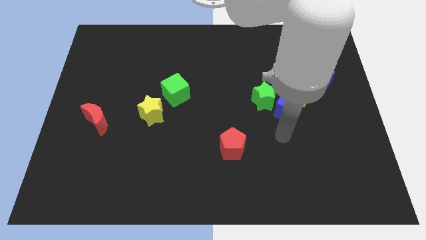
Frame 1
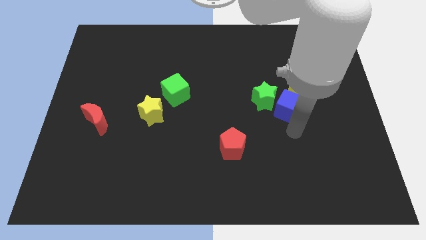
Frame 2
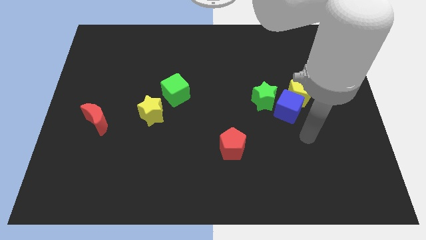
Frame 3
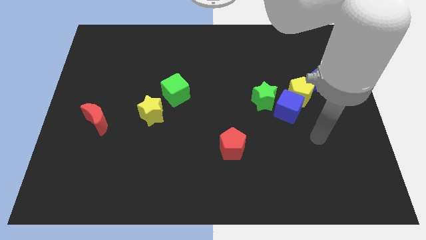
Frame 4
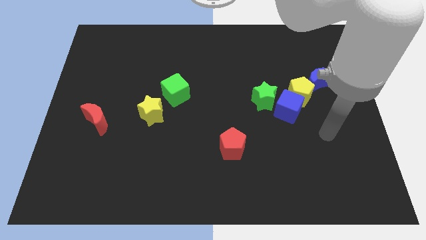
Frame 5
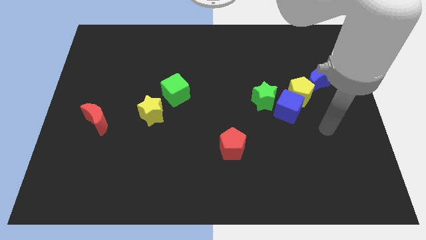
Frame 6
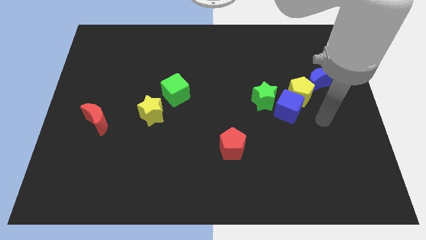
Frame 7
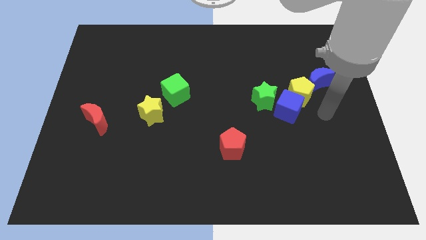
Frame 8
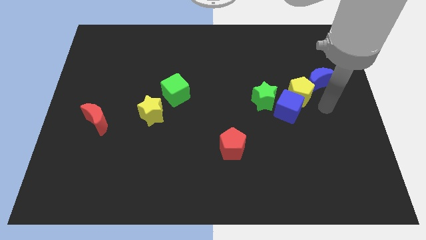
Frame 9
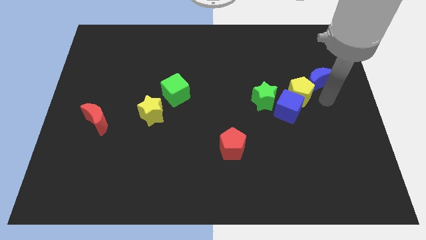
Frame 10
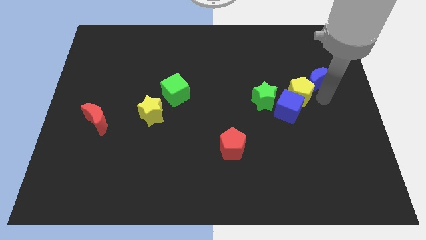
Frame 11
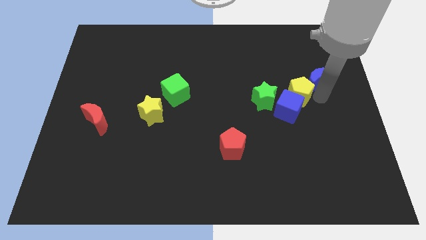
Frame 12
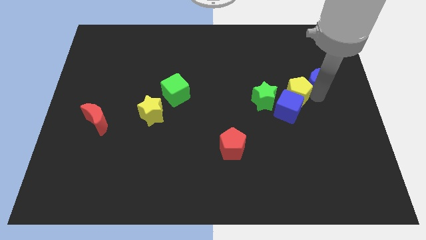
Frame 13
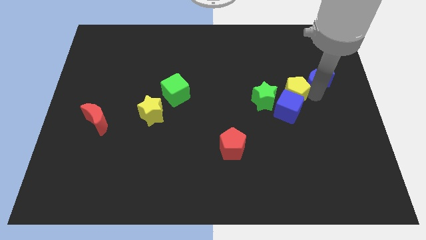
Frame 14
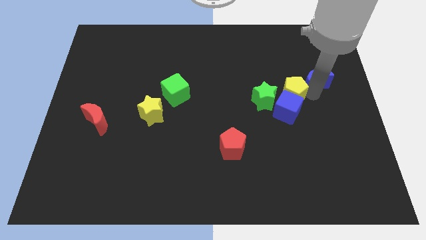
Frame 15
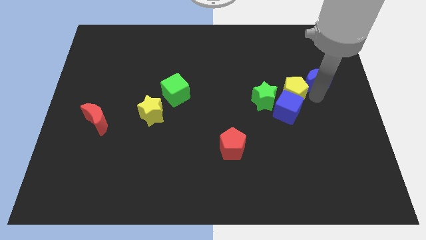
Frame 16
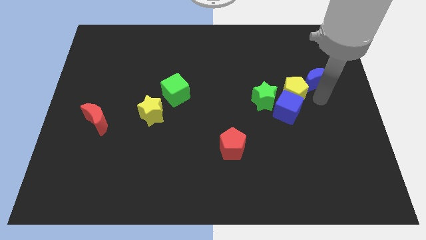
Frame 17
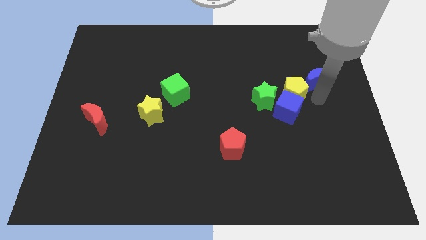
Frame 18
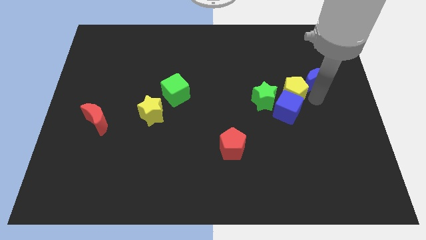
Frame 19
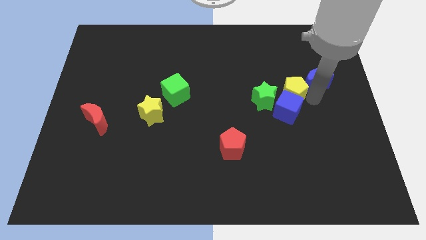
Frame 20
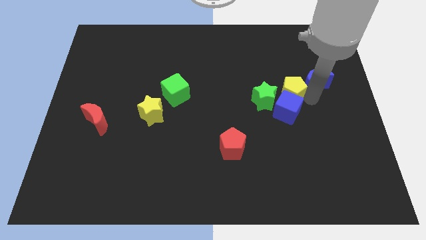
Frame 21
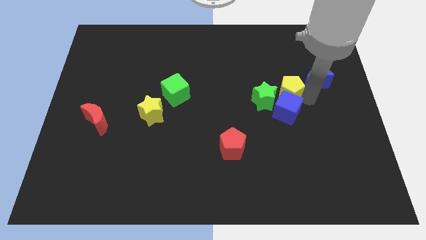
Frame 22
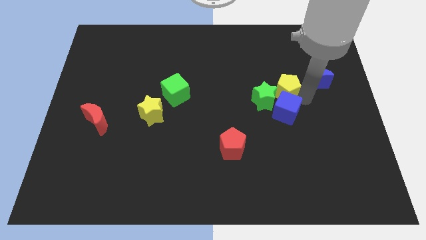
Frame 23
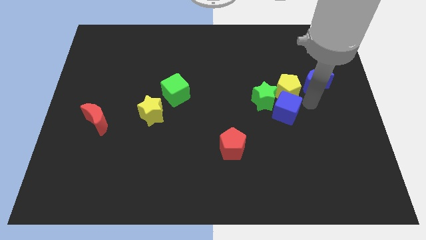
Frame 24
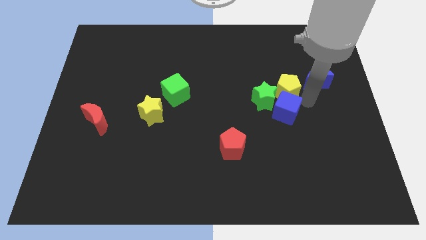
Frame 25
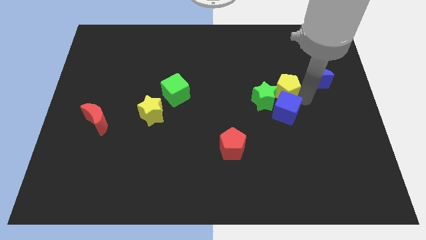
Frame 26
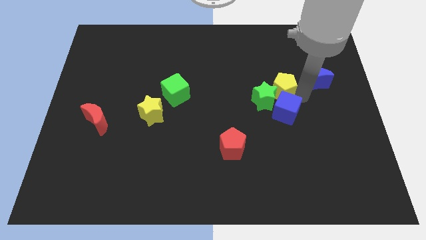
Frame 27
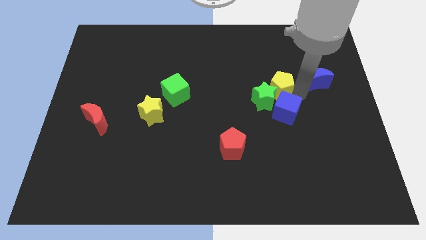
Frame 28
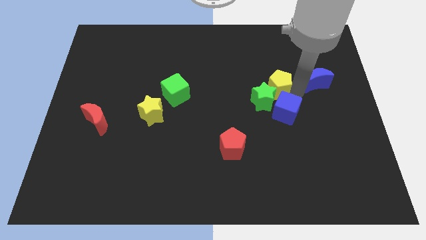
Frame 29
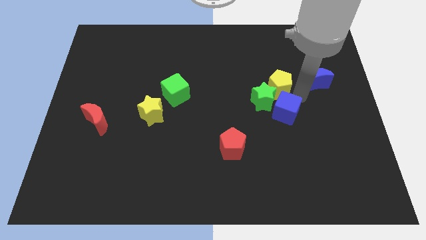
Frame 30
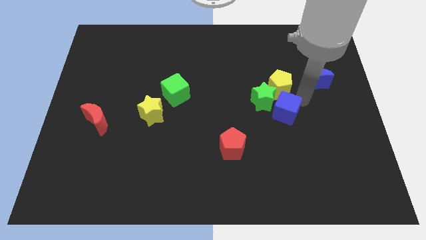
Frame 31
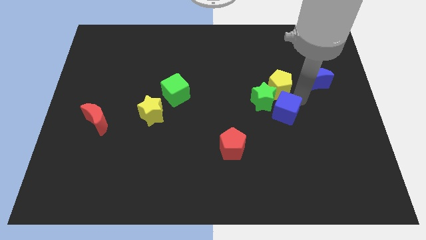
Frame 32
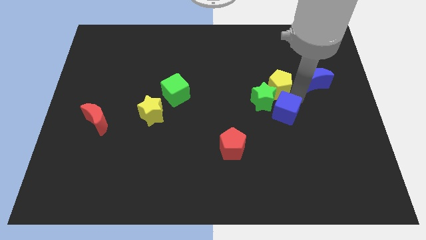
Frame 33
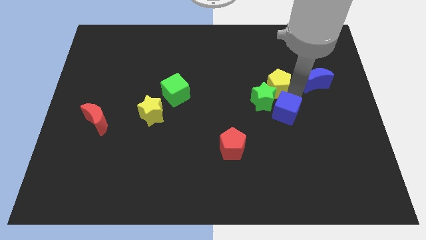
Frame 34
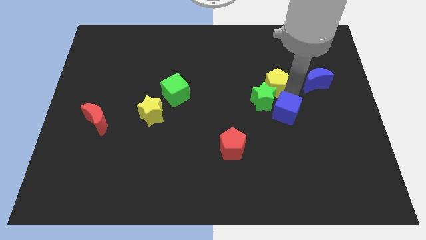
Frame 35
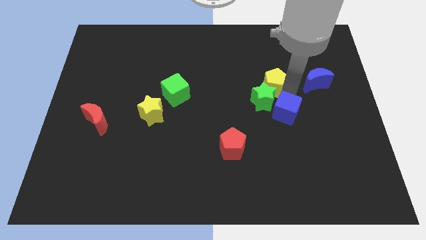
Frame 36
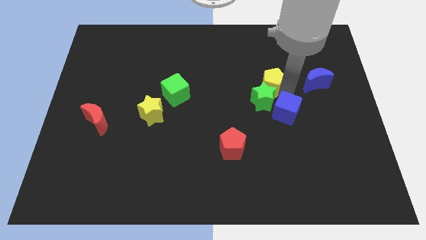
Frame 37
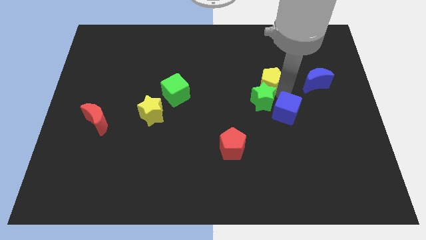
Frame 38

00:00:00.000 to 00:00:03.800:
move the yellow pentagon a bit up and to the left diagonally

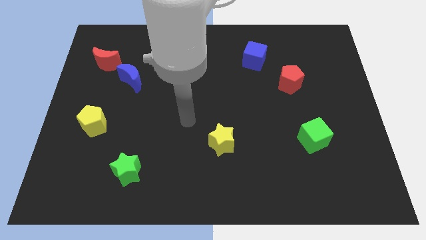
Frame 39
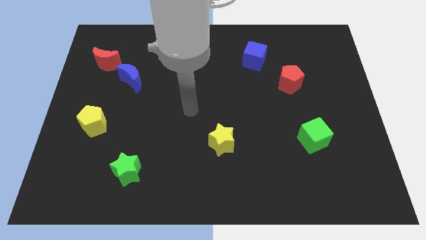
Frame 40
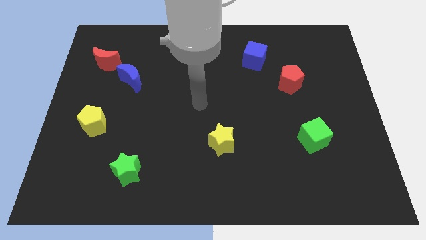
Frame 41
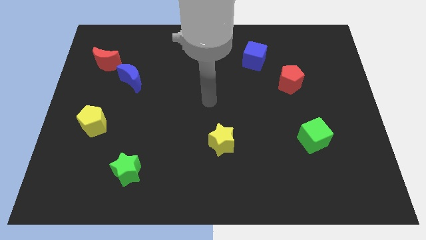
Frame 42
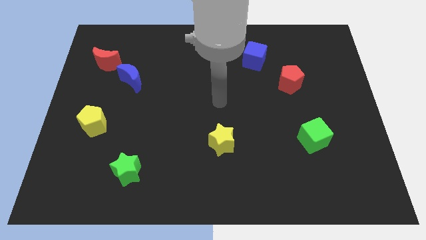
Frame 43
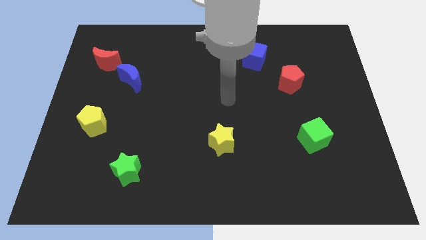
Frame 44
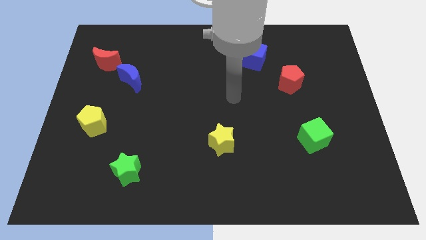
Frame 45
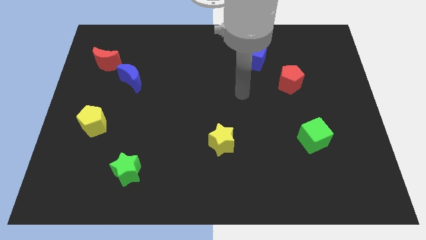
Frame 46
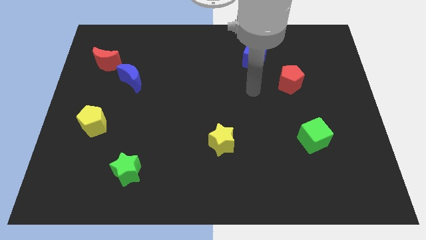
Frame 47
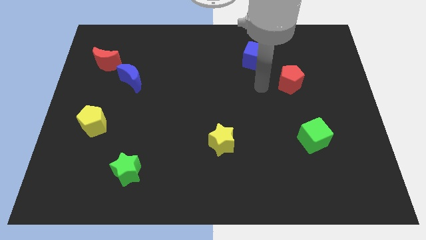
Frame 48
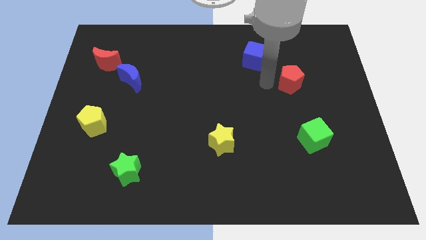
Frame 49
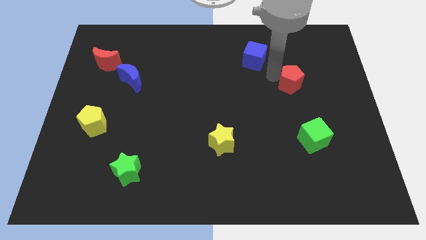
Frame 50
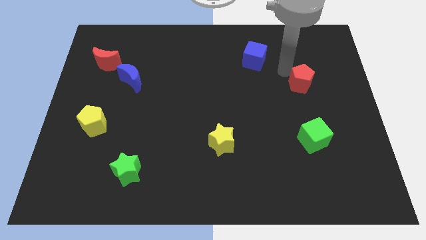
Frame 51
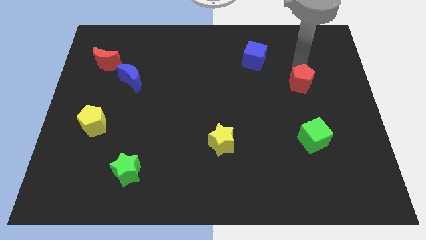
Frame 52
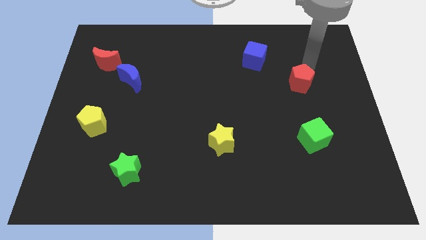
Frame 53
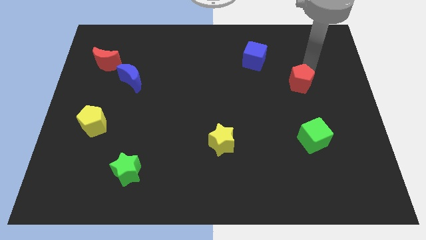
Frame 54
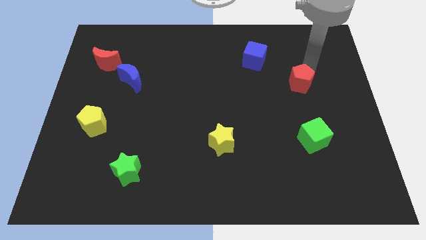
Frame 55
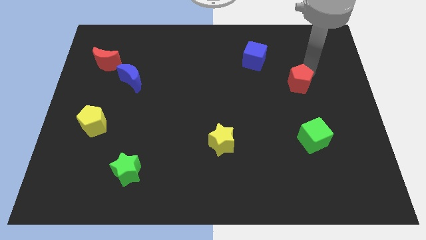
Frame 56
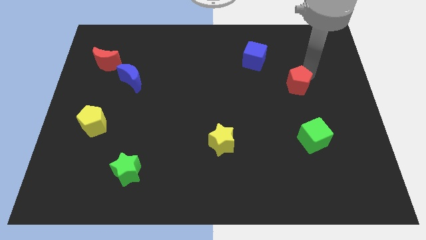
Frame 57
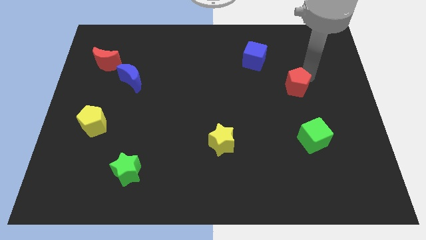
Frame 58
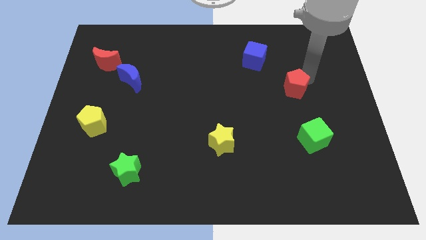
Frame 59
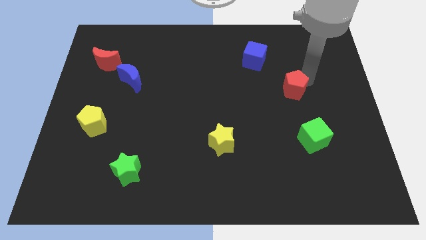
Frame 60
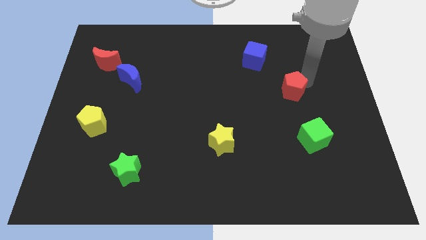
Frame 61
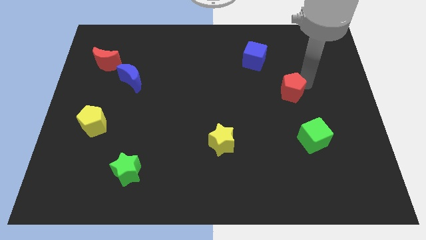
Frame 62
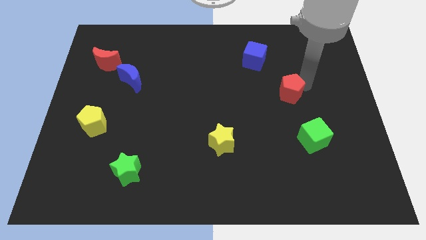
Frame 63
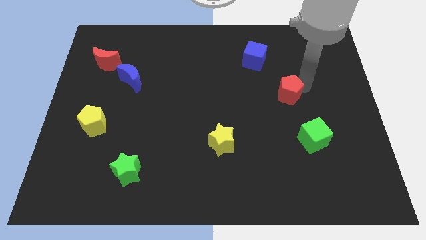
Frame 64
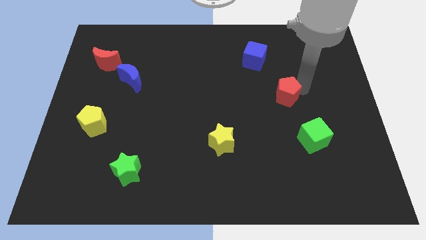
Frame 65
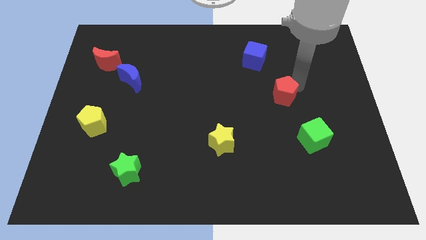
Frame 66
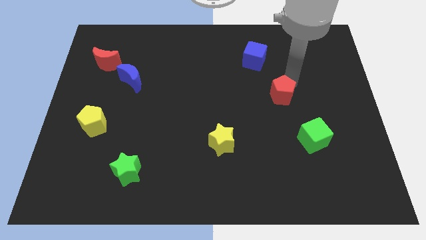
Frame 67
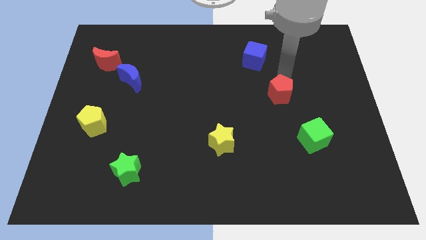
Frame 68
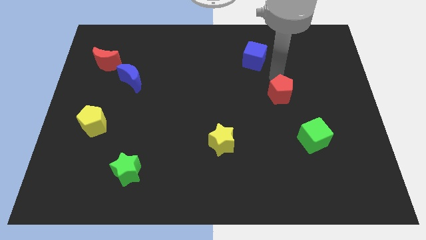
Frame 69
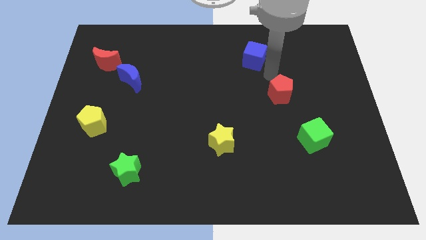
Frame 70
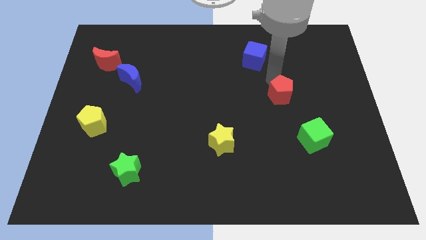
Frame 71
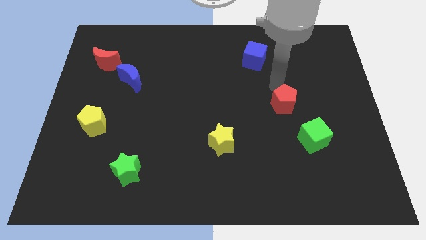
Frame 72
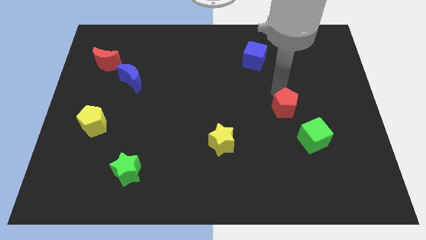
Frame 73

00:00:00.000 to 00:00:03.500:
move the red pentagon down somewhat

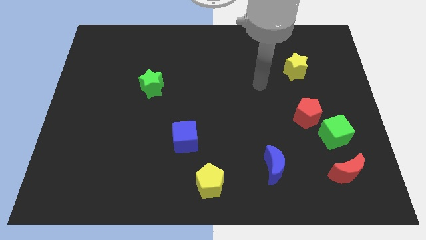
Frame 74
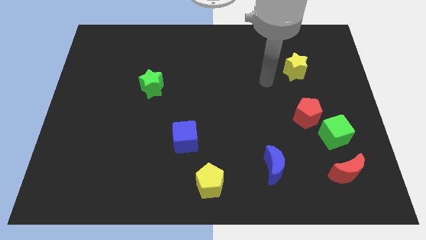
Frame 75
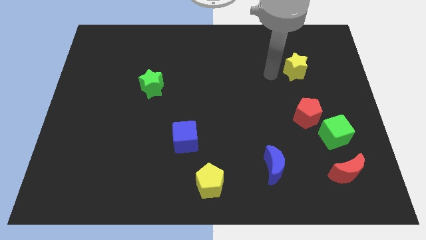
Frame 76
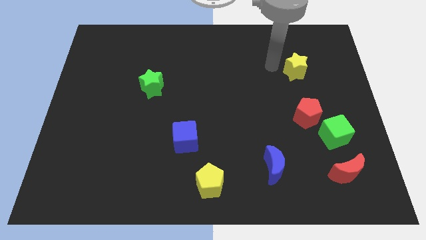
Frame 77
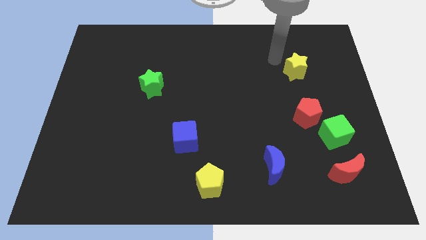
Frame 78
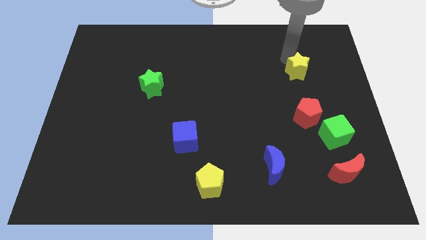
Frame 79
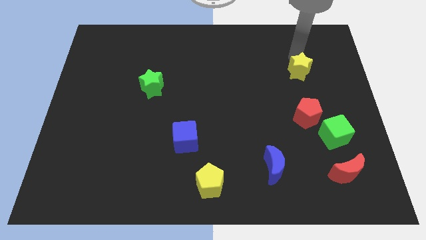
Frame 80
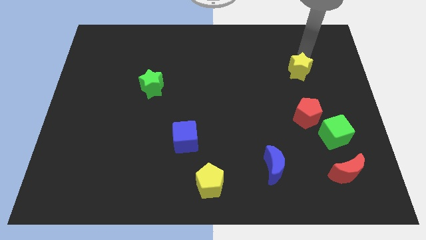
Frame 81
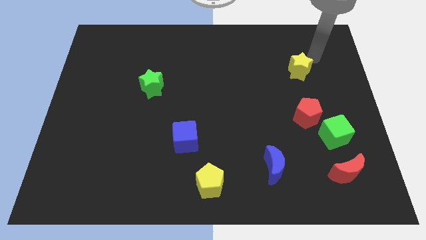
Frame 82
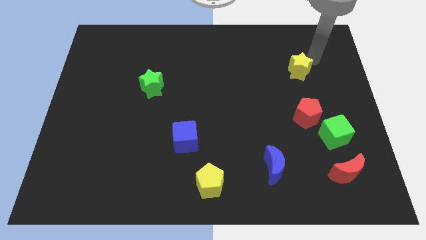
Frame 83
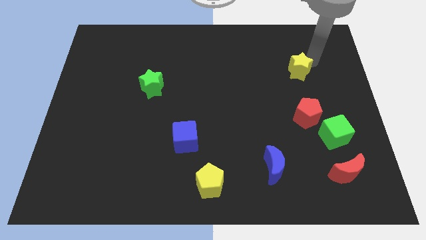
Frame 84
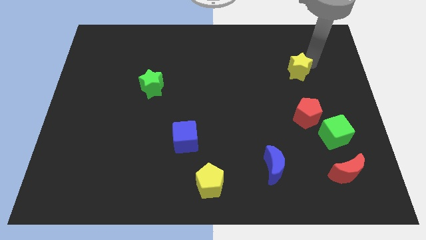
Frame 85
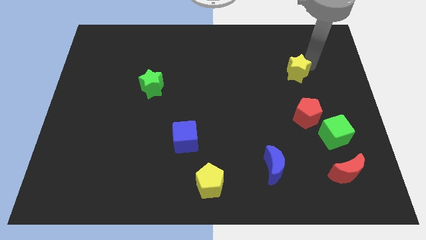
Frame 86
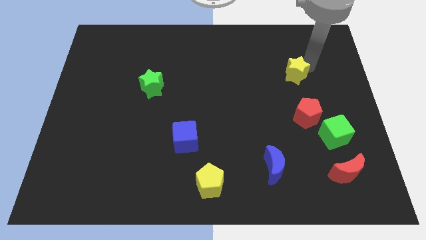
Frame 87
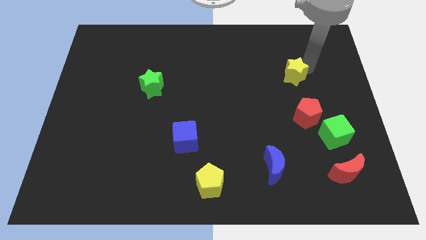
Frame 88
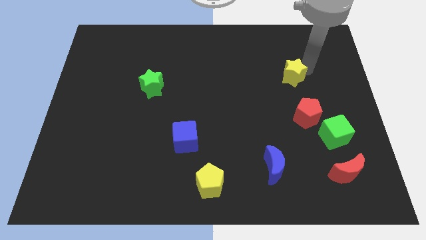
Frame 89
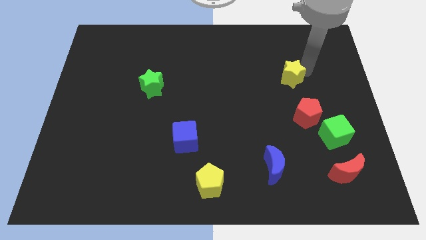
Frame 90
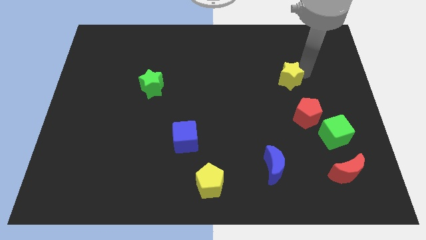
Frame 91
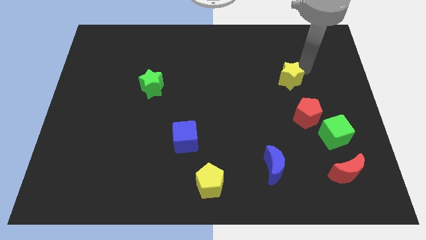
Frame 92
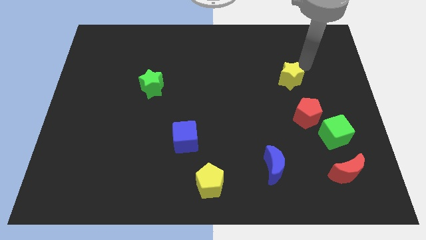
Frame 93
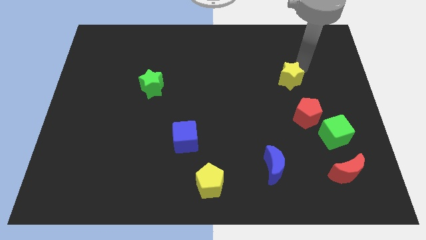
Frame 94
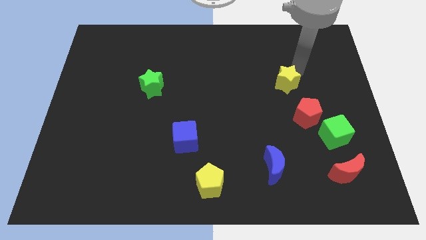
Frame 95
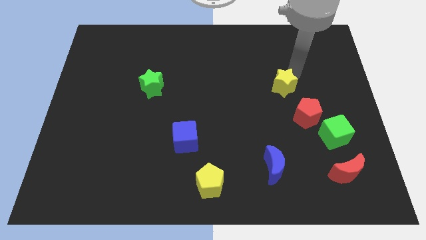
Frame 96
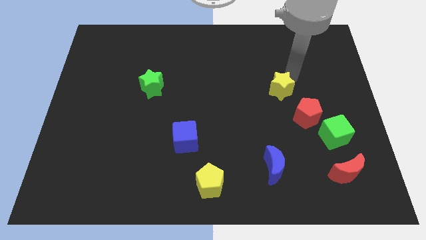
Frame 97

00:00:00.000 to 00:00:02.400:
move the yellow star slightly down and then left
